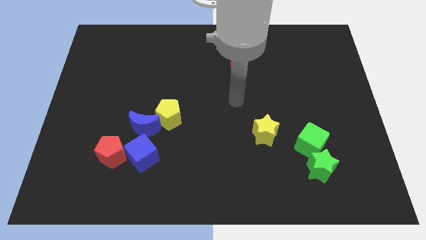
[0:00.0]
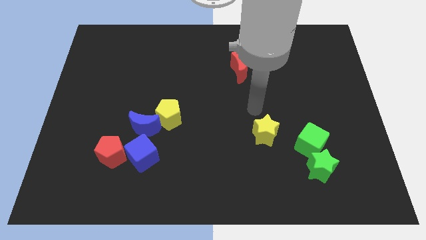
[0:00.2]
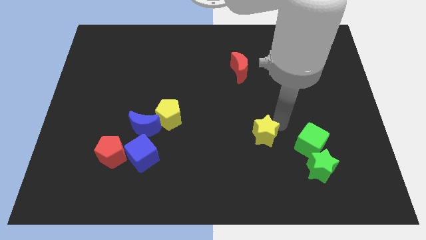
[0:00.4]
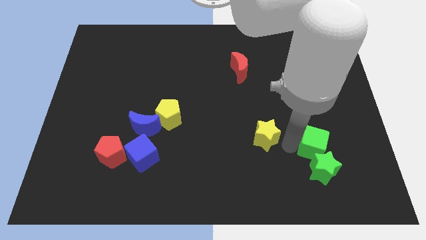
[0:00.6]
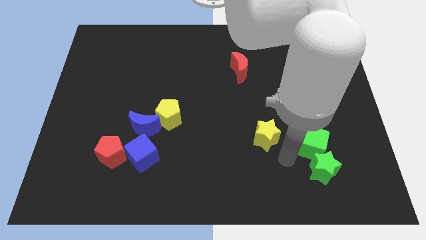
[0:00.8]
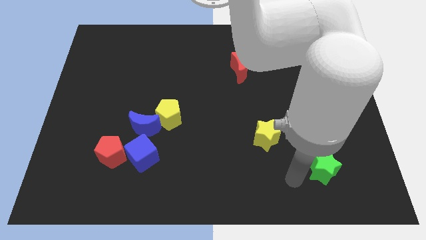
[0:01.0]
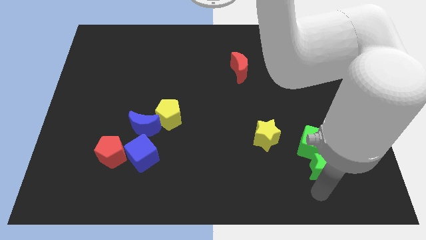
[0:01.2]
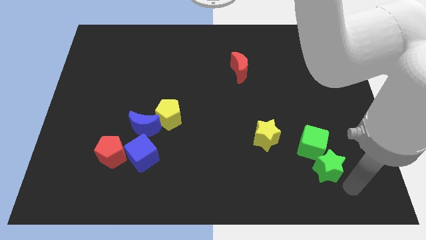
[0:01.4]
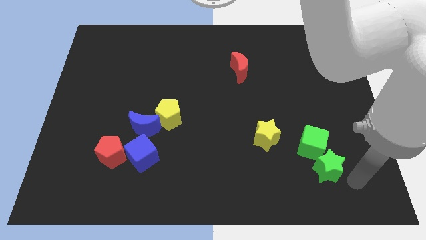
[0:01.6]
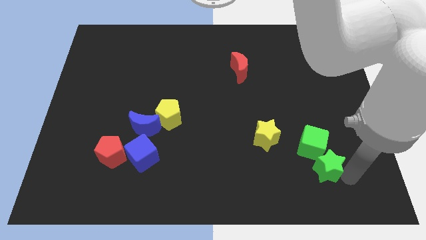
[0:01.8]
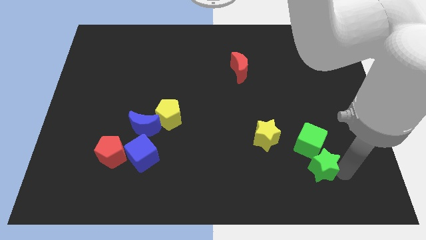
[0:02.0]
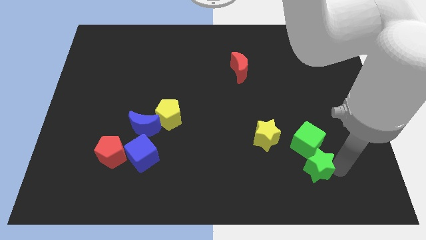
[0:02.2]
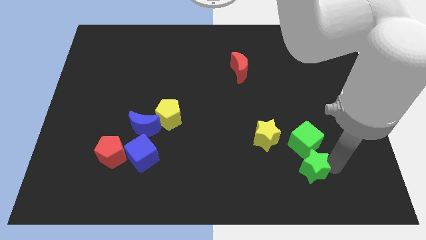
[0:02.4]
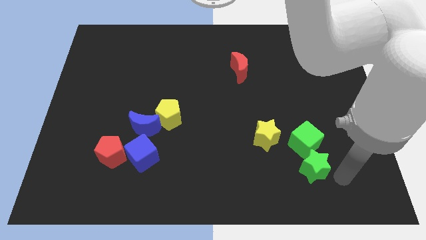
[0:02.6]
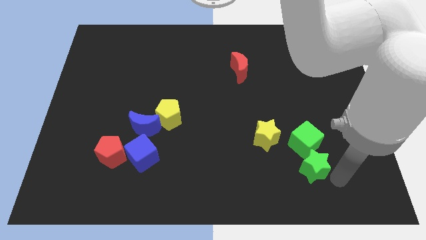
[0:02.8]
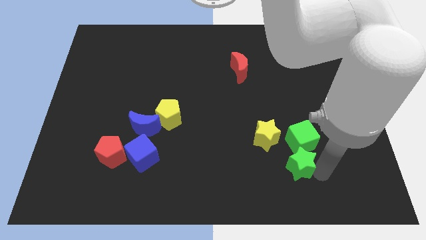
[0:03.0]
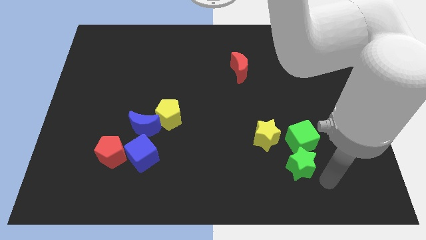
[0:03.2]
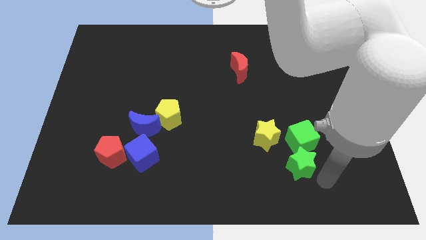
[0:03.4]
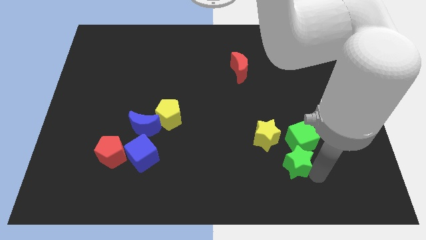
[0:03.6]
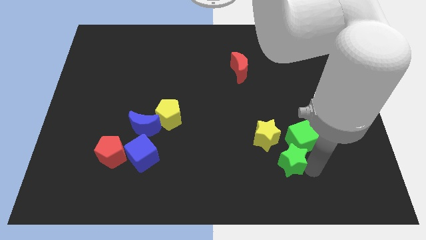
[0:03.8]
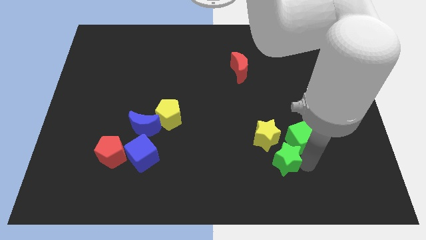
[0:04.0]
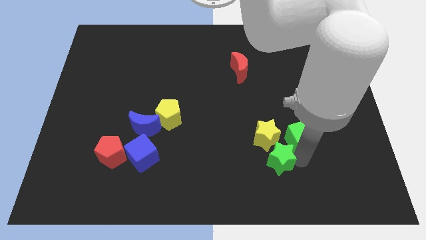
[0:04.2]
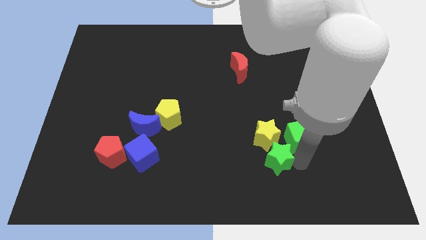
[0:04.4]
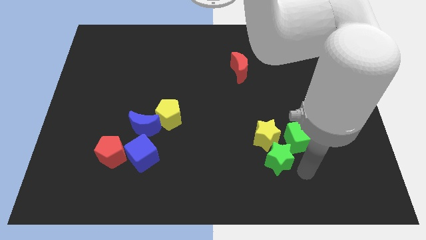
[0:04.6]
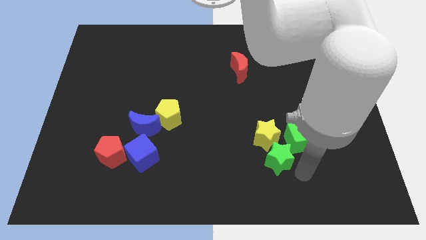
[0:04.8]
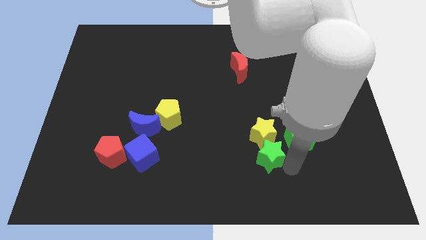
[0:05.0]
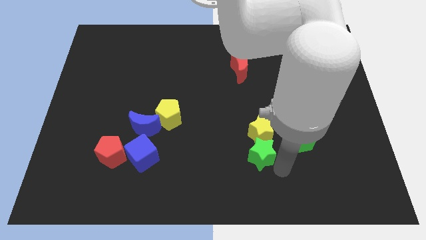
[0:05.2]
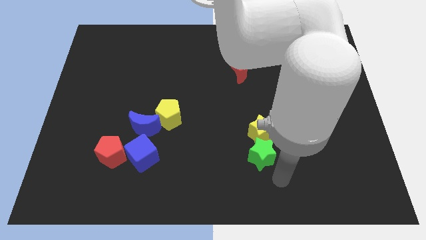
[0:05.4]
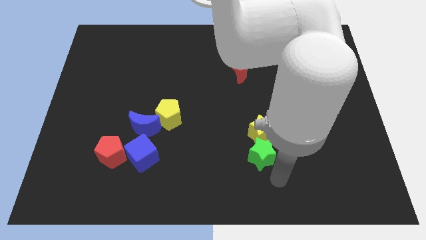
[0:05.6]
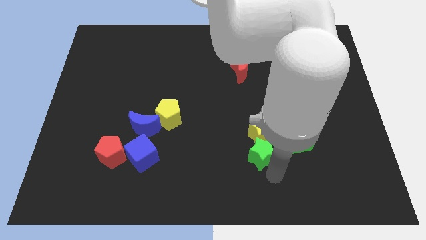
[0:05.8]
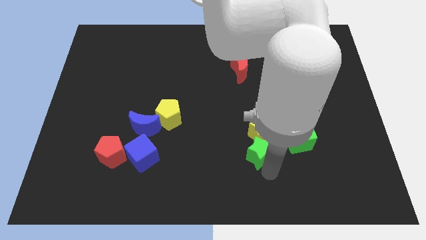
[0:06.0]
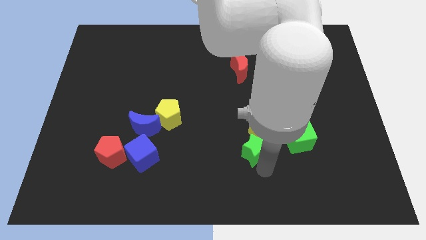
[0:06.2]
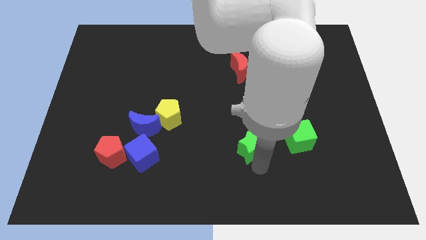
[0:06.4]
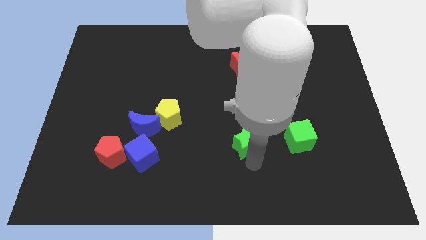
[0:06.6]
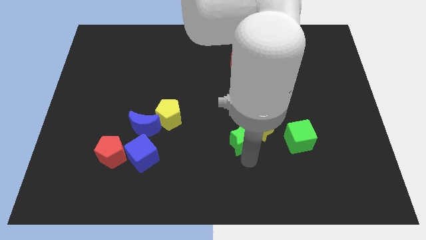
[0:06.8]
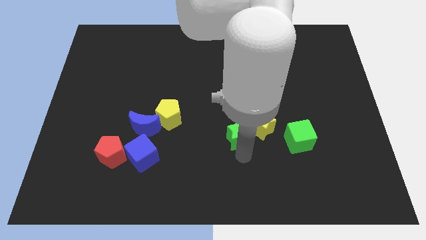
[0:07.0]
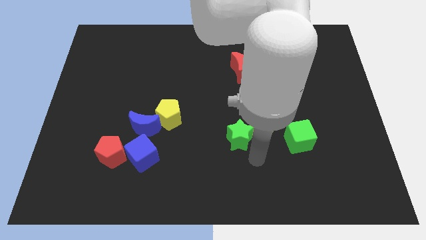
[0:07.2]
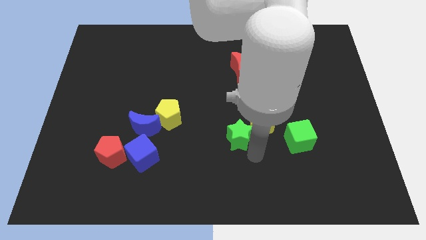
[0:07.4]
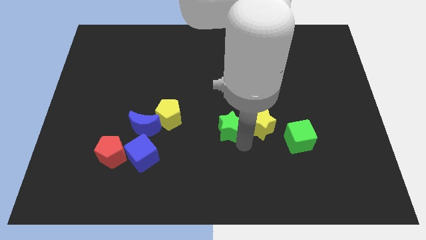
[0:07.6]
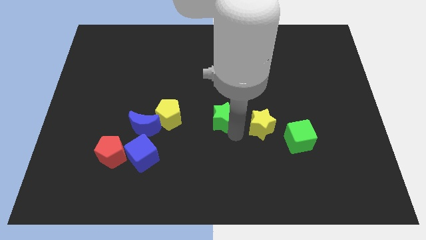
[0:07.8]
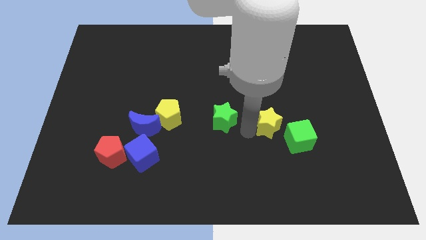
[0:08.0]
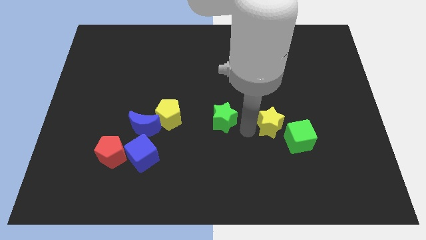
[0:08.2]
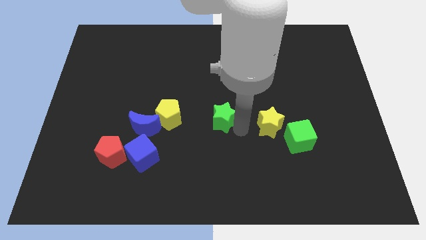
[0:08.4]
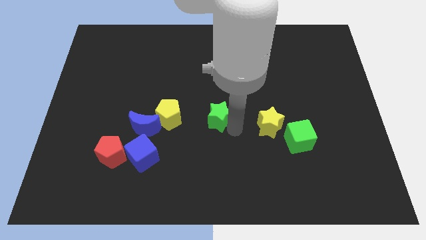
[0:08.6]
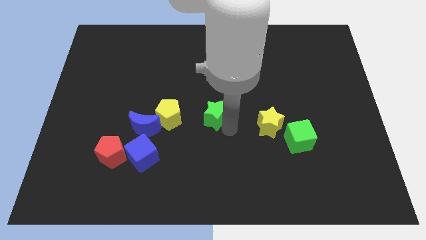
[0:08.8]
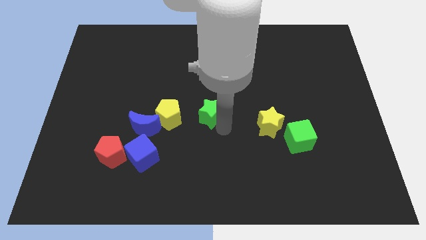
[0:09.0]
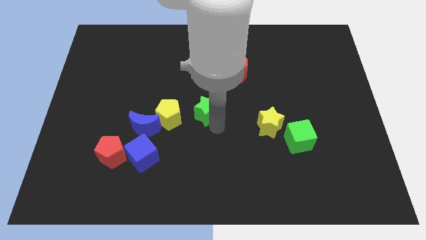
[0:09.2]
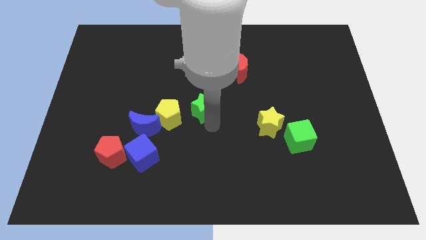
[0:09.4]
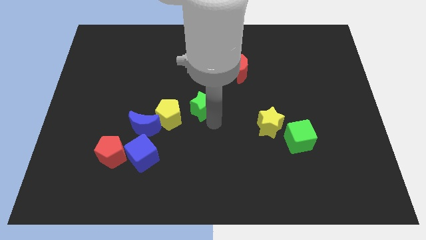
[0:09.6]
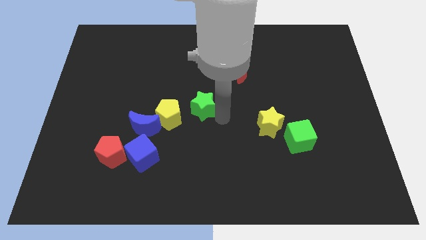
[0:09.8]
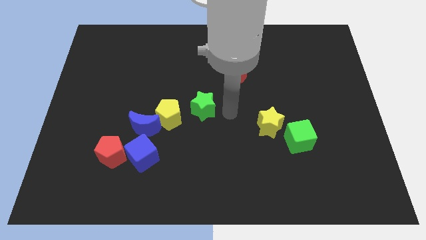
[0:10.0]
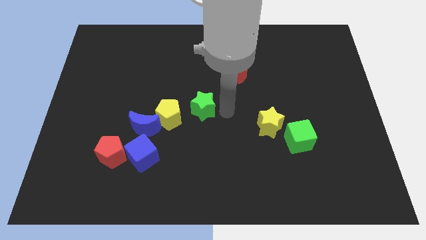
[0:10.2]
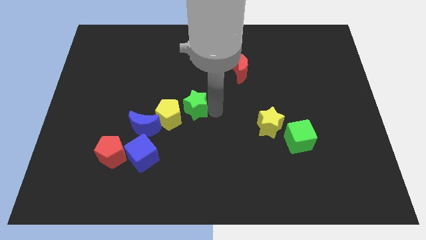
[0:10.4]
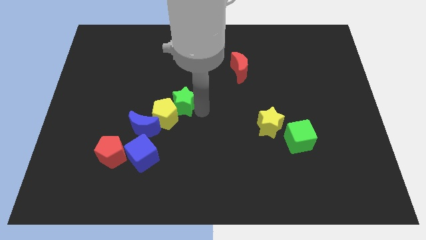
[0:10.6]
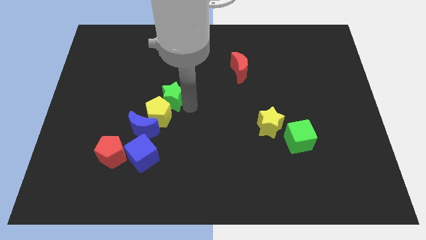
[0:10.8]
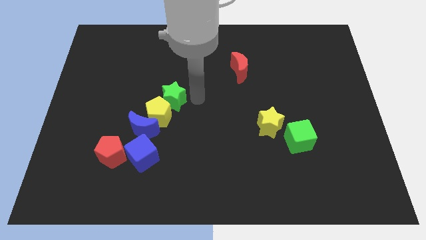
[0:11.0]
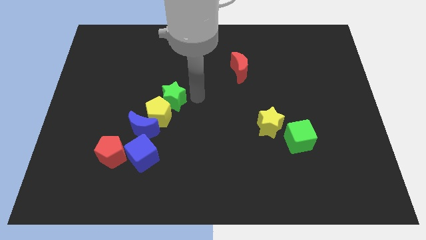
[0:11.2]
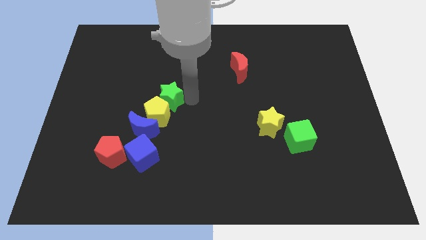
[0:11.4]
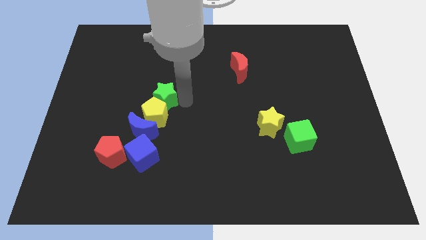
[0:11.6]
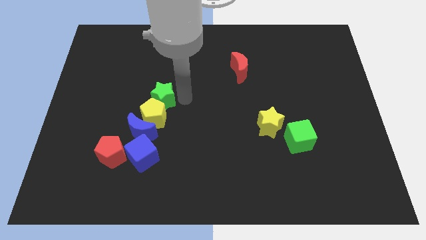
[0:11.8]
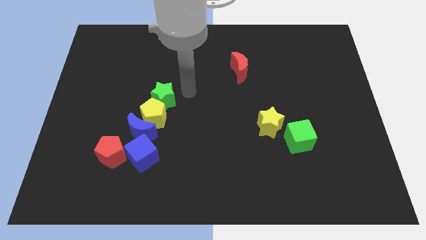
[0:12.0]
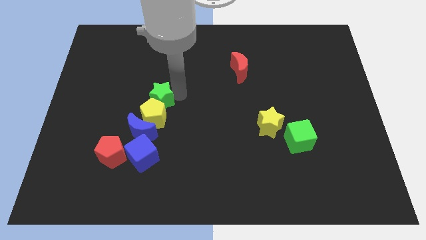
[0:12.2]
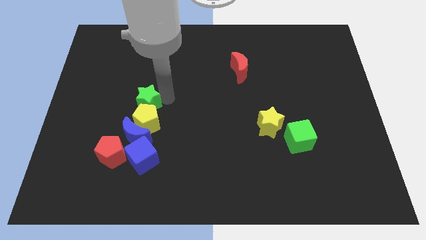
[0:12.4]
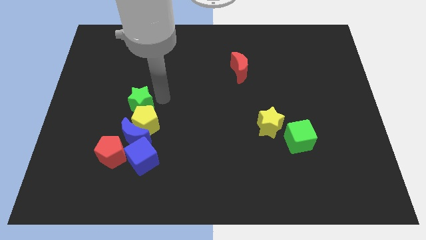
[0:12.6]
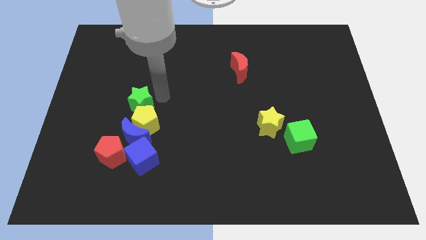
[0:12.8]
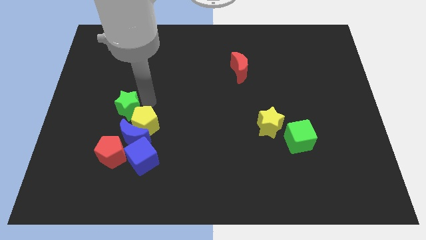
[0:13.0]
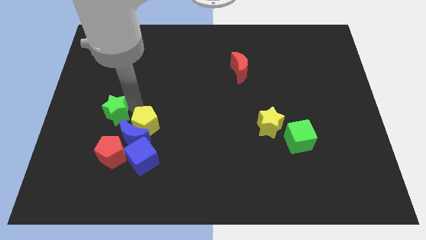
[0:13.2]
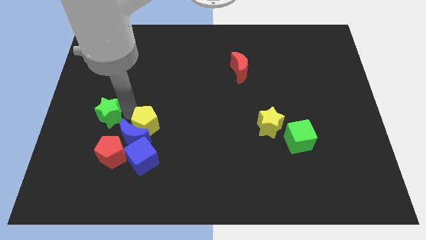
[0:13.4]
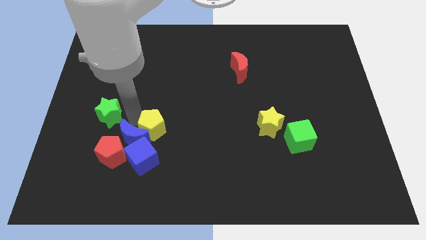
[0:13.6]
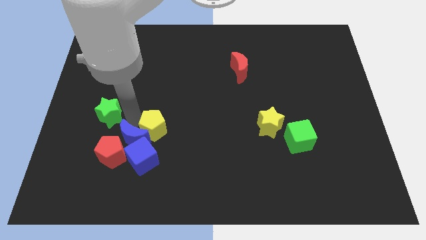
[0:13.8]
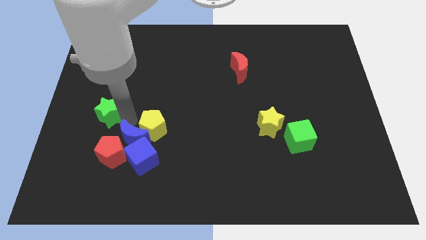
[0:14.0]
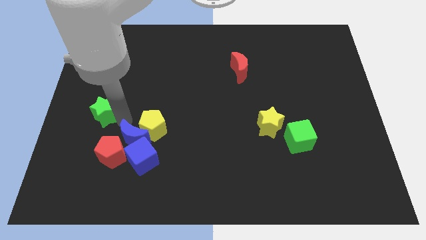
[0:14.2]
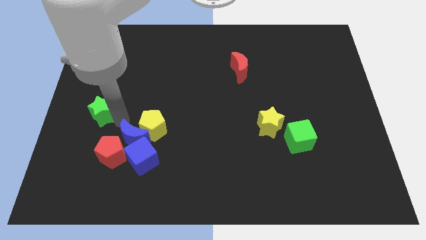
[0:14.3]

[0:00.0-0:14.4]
slide the green star to the left side of the board
